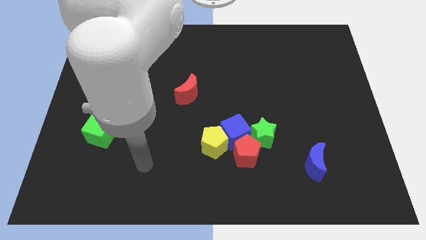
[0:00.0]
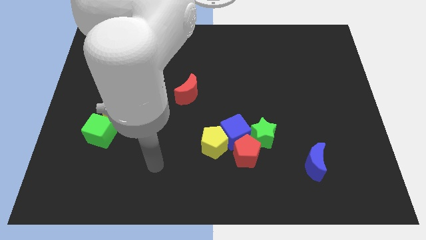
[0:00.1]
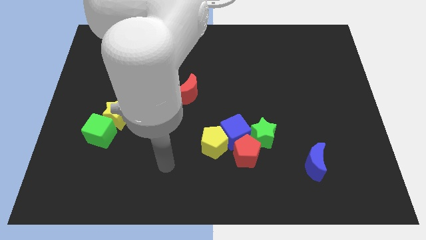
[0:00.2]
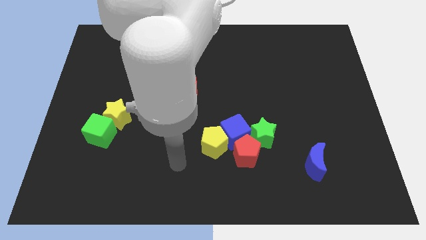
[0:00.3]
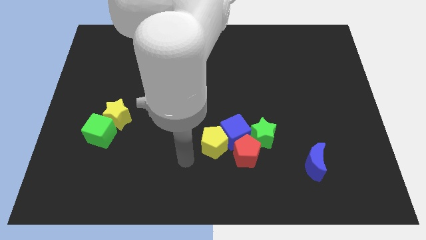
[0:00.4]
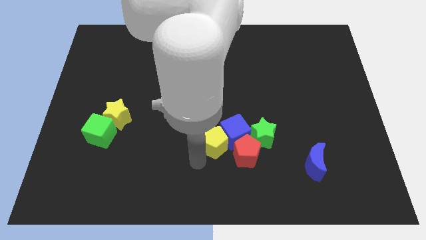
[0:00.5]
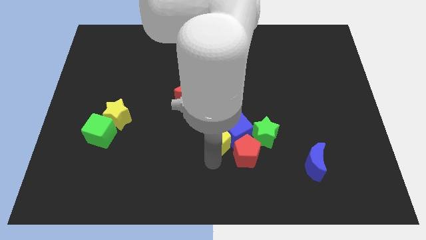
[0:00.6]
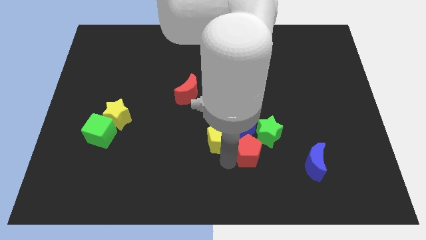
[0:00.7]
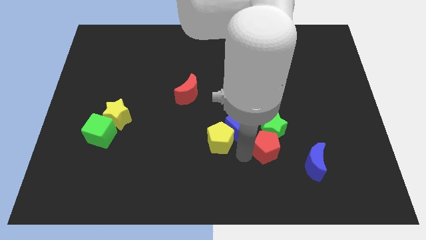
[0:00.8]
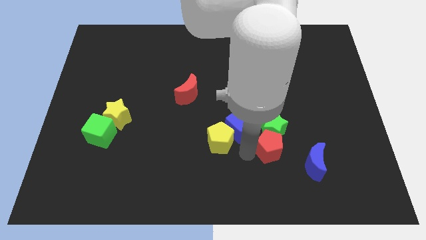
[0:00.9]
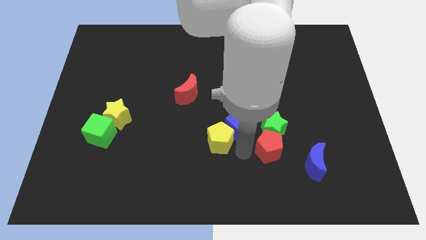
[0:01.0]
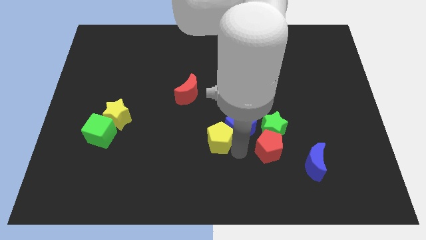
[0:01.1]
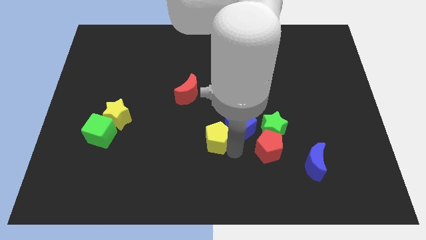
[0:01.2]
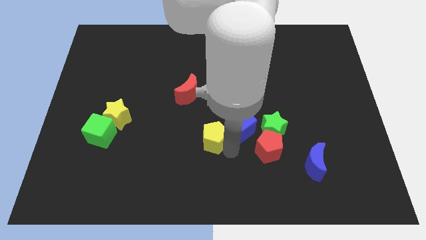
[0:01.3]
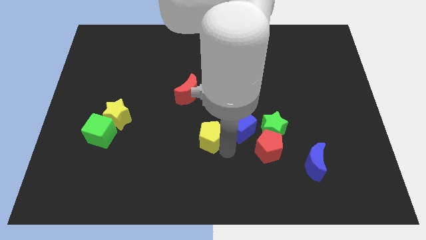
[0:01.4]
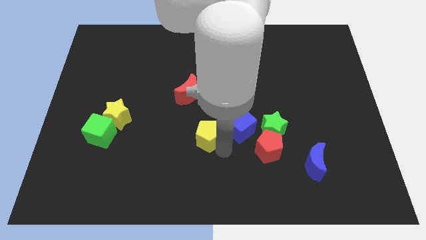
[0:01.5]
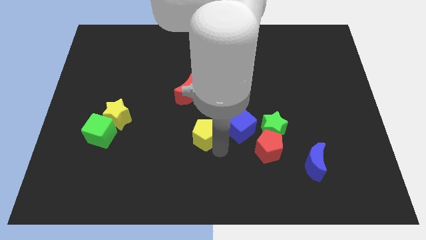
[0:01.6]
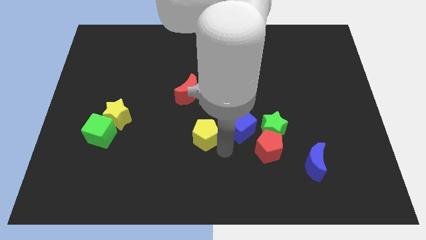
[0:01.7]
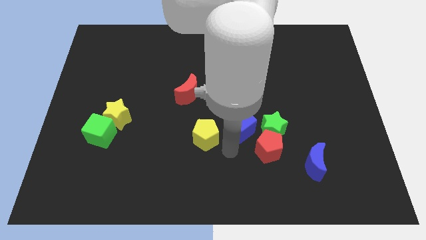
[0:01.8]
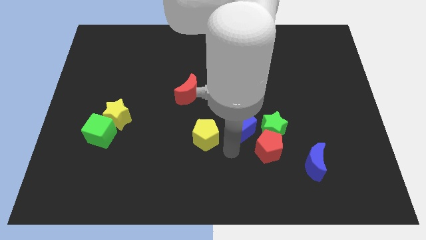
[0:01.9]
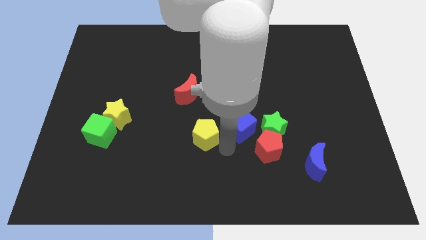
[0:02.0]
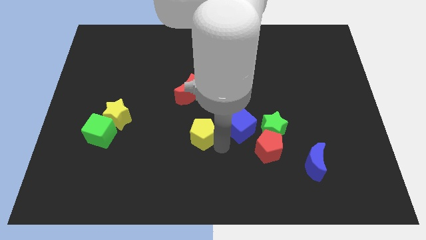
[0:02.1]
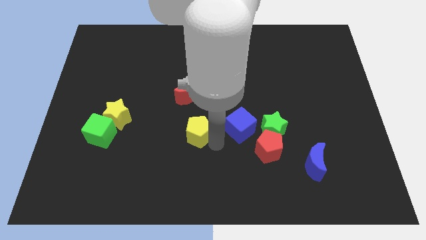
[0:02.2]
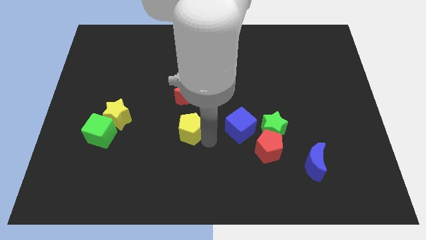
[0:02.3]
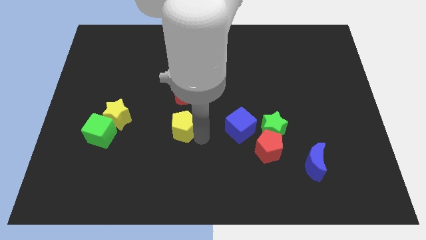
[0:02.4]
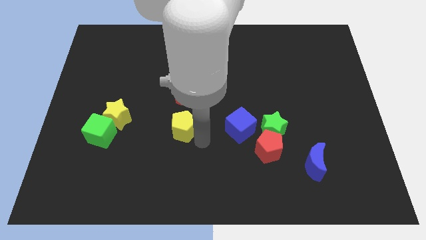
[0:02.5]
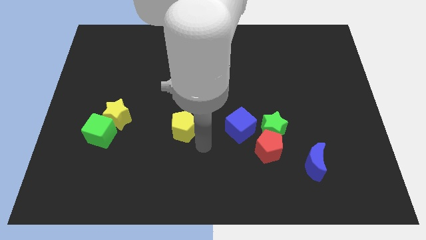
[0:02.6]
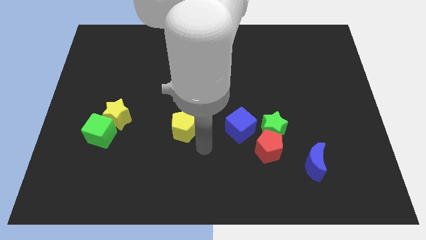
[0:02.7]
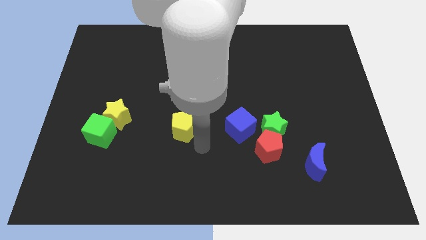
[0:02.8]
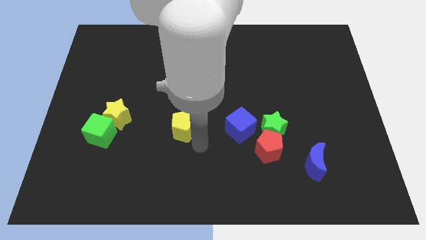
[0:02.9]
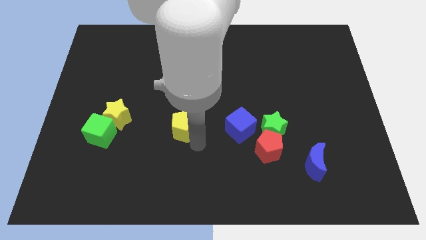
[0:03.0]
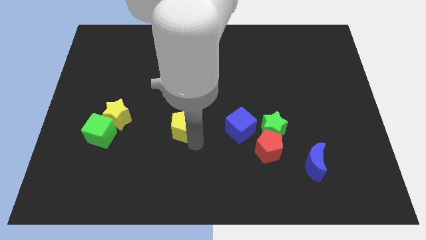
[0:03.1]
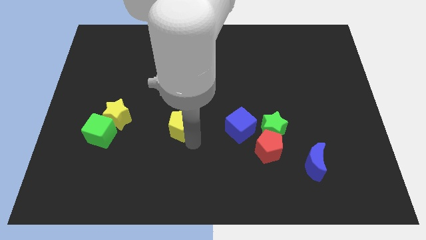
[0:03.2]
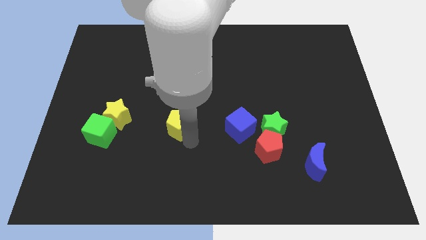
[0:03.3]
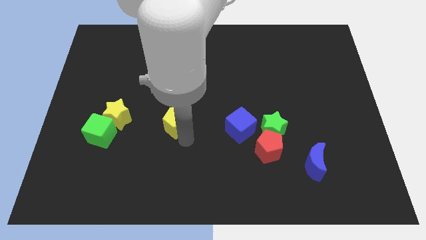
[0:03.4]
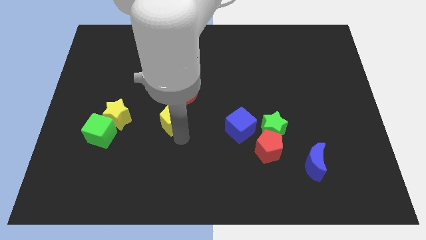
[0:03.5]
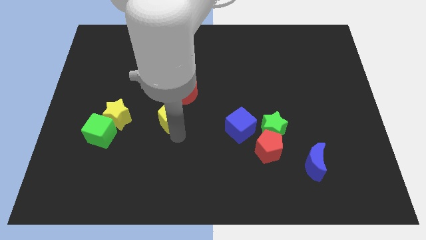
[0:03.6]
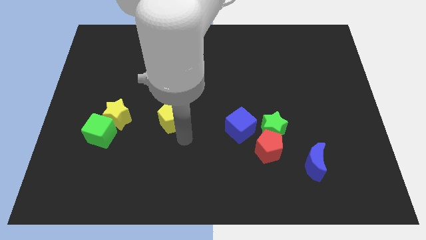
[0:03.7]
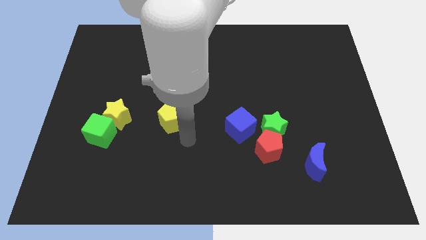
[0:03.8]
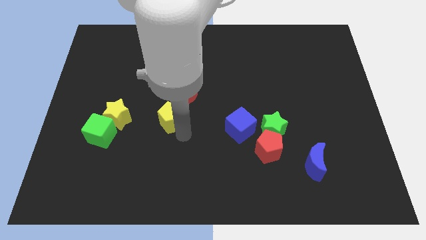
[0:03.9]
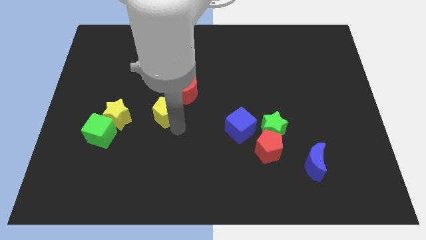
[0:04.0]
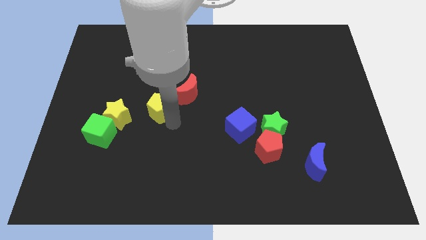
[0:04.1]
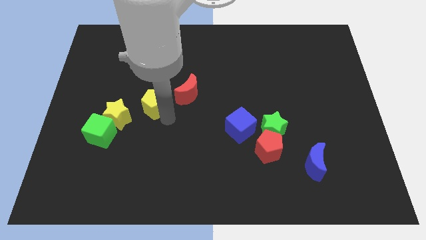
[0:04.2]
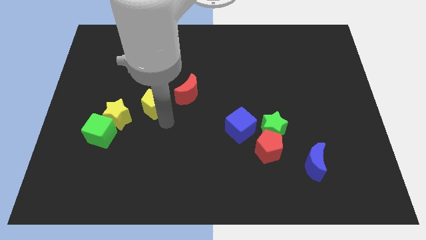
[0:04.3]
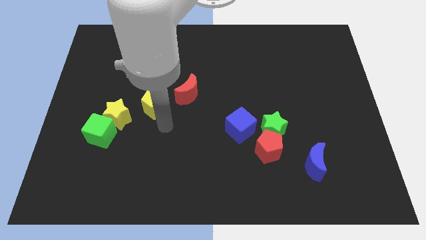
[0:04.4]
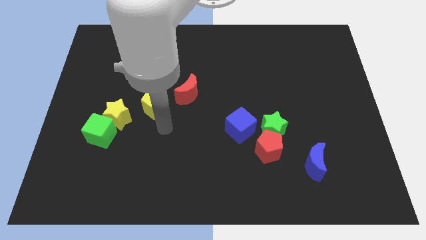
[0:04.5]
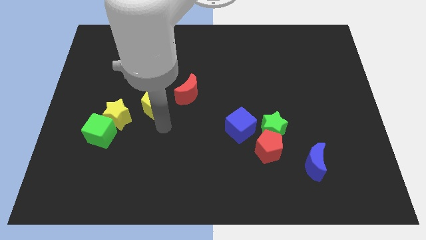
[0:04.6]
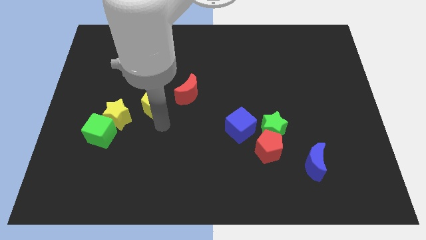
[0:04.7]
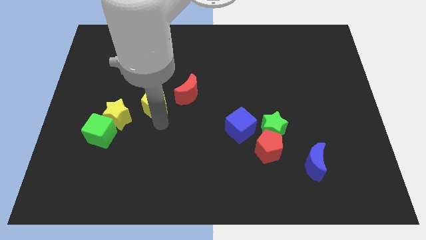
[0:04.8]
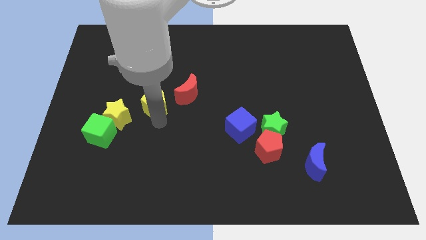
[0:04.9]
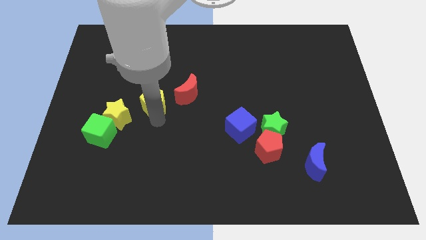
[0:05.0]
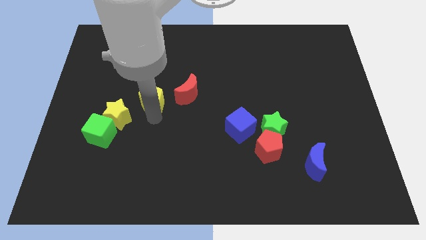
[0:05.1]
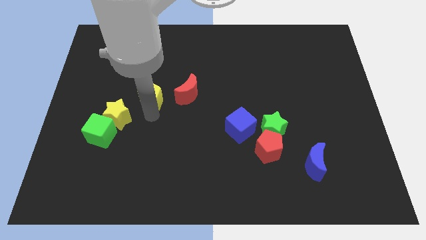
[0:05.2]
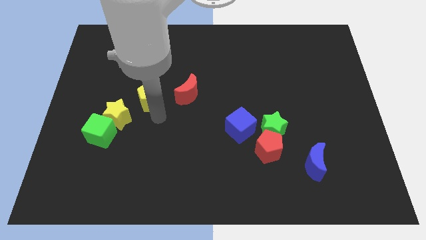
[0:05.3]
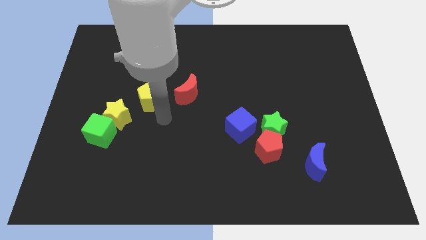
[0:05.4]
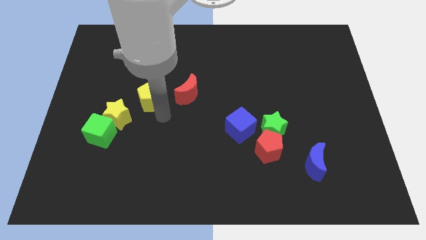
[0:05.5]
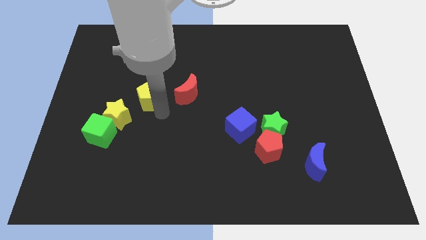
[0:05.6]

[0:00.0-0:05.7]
push the yellow pentagon upwards and to the left

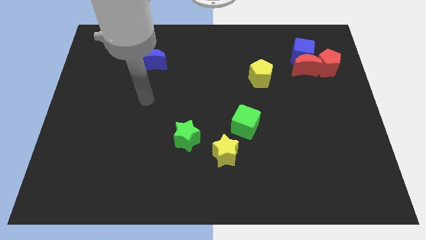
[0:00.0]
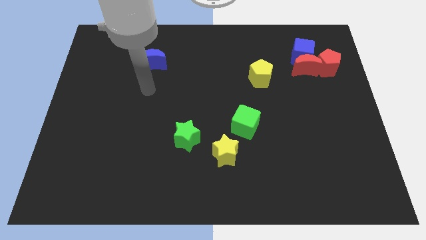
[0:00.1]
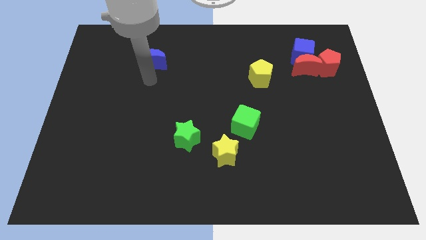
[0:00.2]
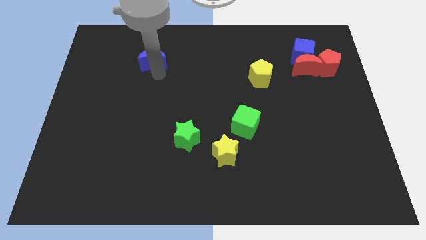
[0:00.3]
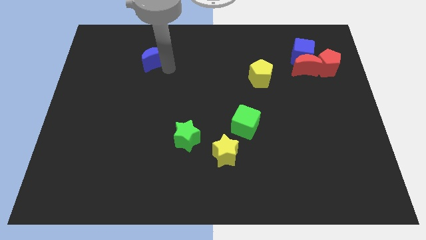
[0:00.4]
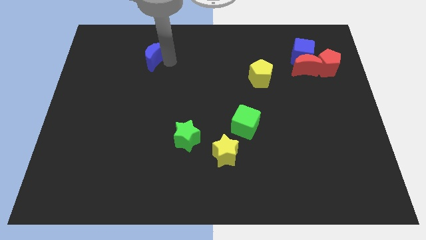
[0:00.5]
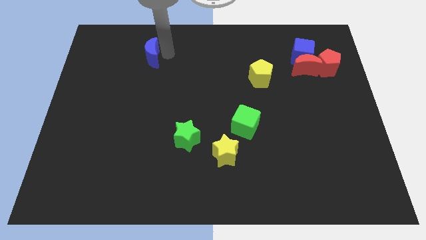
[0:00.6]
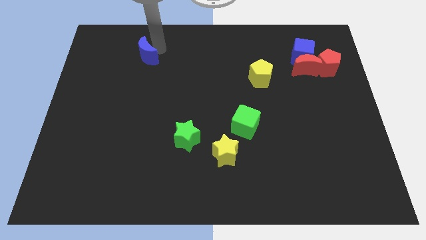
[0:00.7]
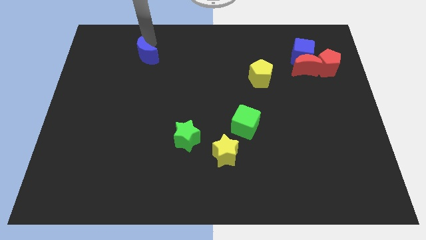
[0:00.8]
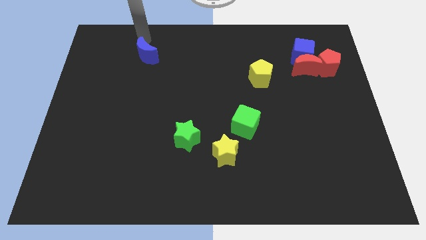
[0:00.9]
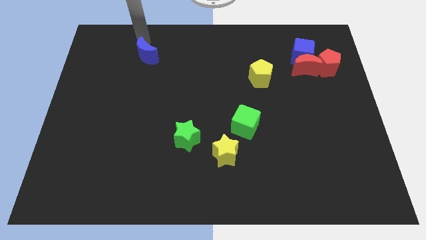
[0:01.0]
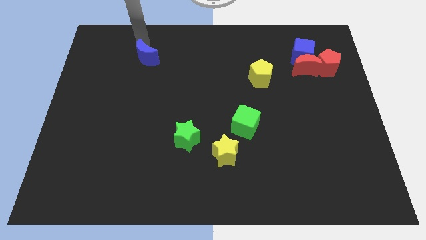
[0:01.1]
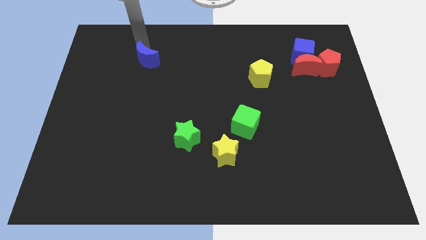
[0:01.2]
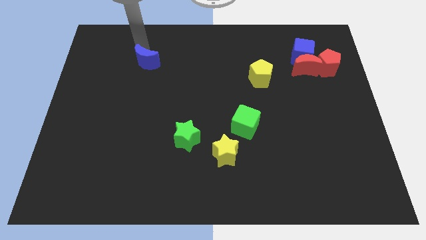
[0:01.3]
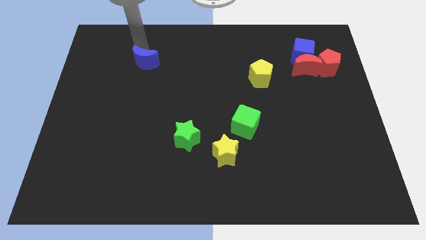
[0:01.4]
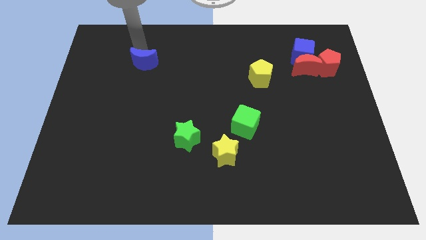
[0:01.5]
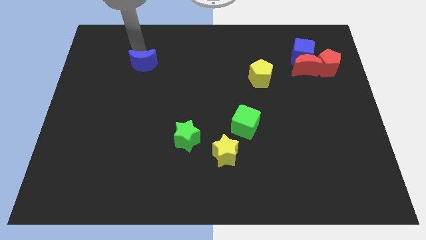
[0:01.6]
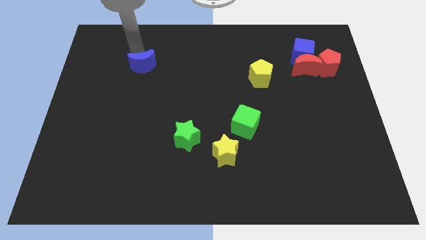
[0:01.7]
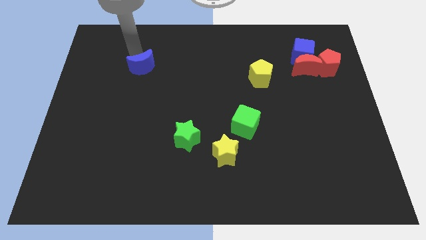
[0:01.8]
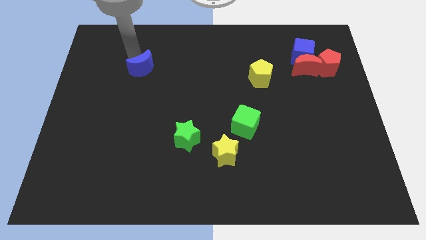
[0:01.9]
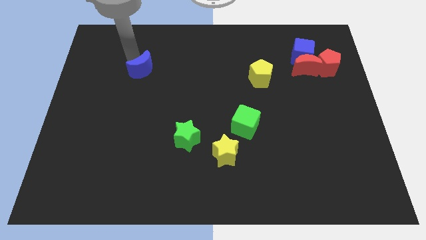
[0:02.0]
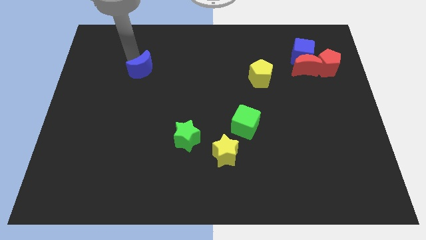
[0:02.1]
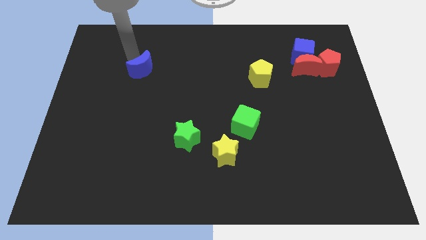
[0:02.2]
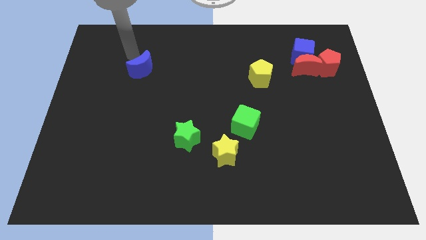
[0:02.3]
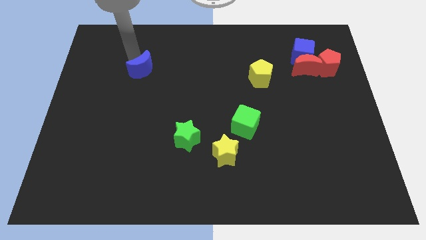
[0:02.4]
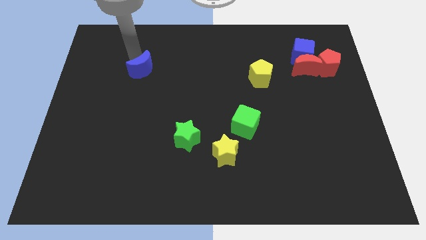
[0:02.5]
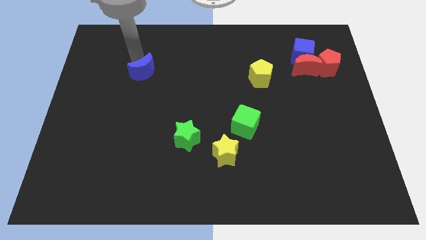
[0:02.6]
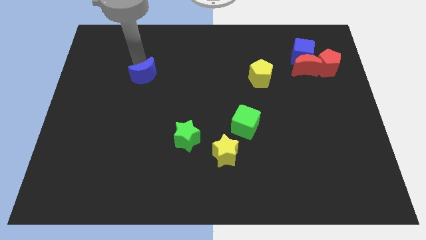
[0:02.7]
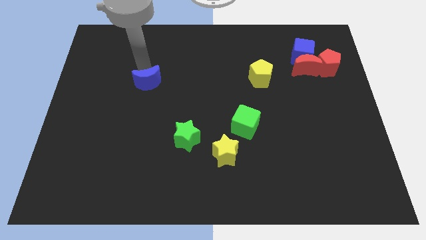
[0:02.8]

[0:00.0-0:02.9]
slightly slide the blue moon down
